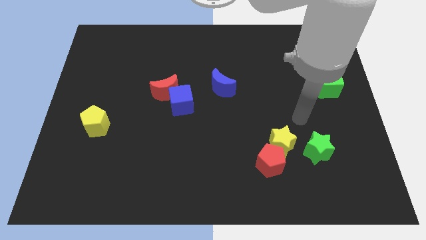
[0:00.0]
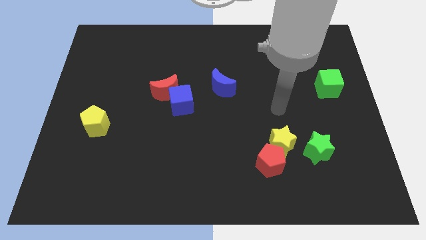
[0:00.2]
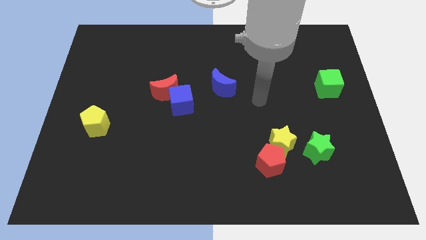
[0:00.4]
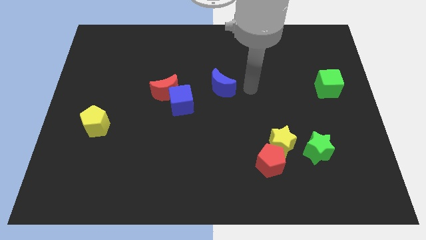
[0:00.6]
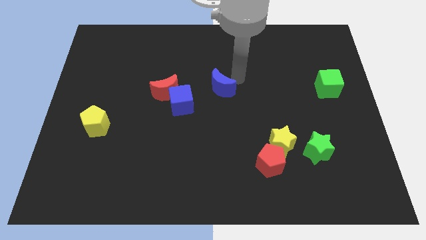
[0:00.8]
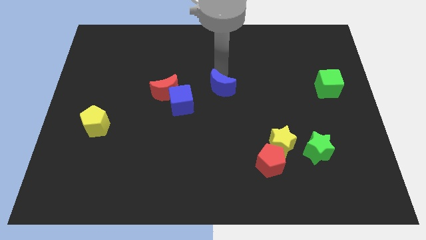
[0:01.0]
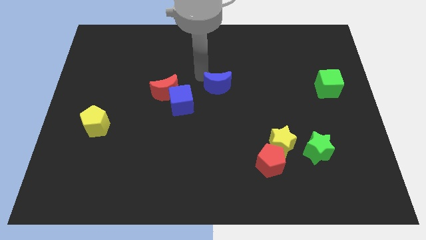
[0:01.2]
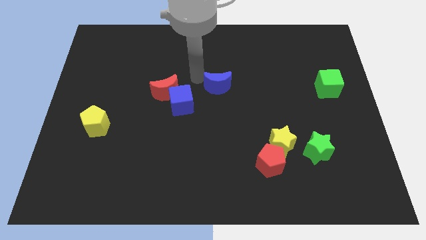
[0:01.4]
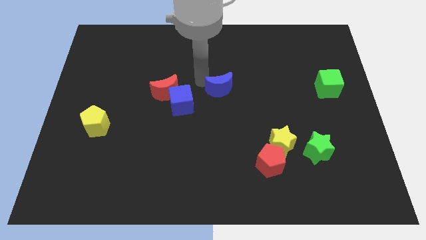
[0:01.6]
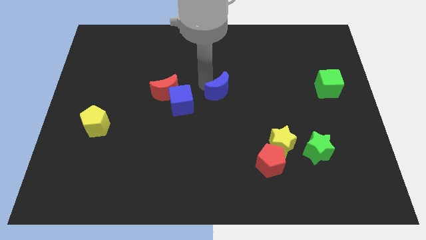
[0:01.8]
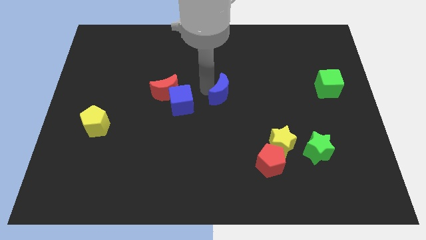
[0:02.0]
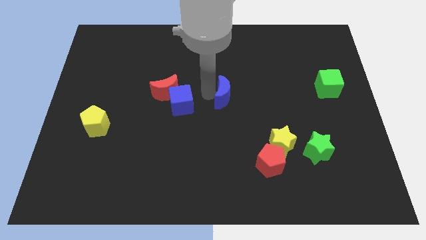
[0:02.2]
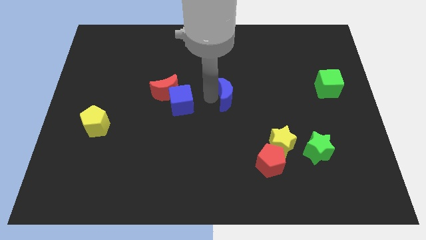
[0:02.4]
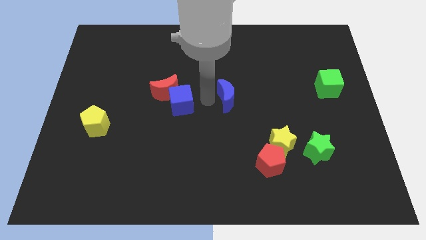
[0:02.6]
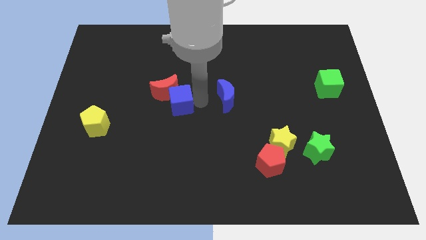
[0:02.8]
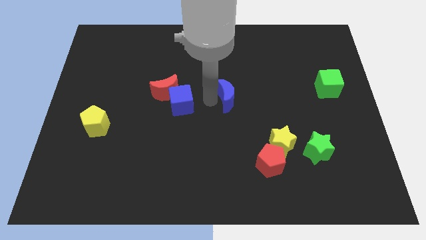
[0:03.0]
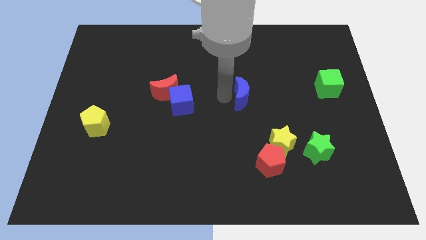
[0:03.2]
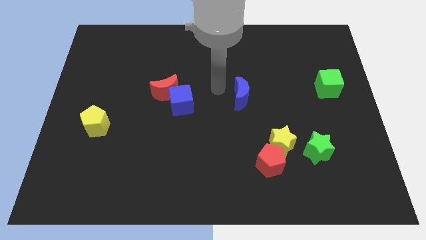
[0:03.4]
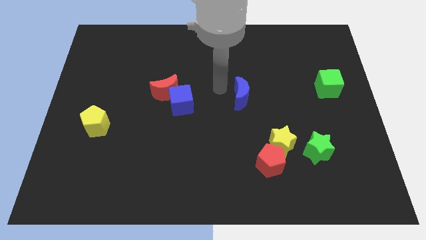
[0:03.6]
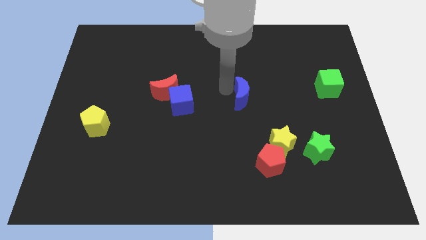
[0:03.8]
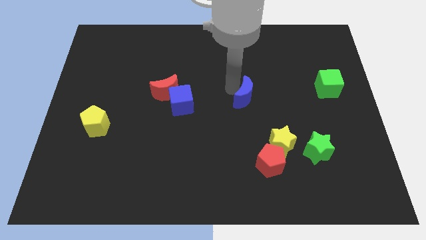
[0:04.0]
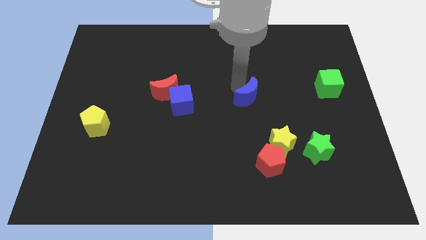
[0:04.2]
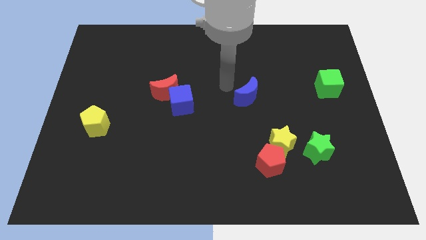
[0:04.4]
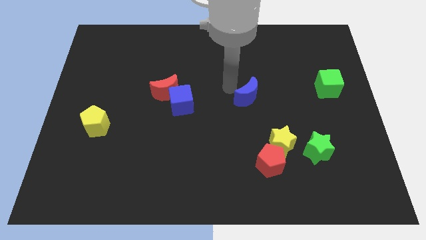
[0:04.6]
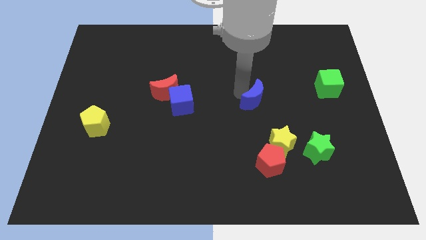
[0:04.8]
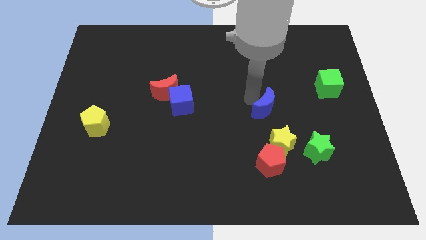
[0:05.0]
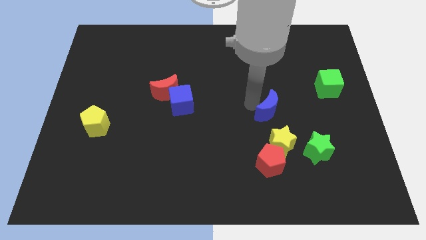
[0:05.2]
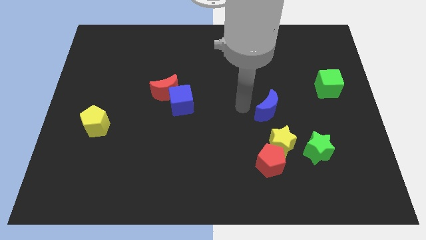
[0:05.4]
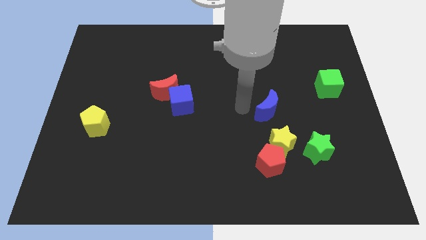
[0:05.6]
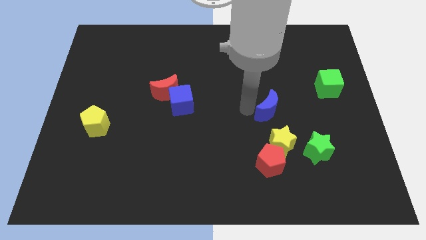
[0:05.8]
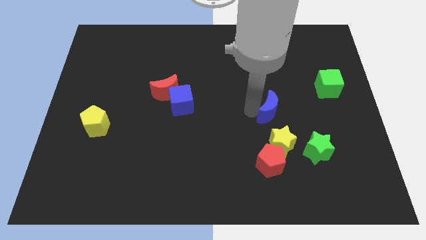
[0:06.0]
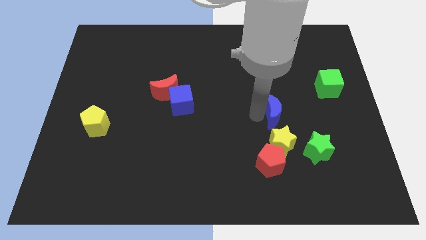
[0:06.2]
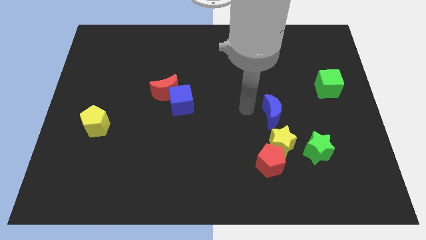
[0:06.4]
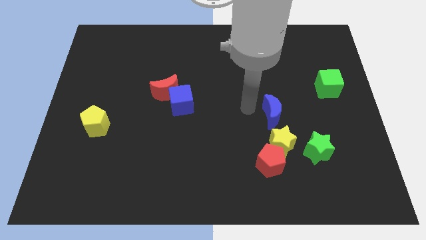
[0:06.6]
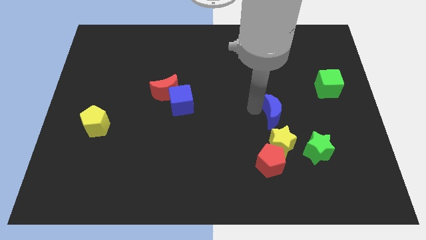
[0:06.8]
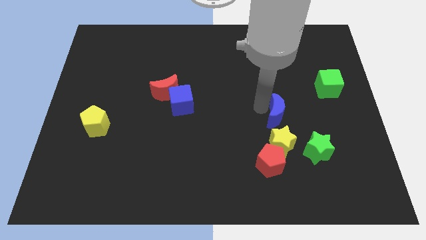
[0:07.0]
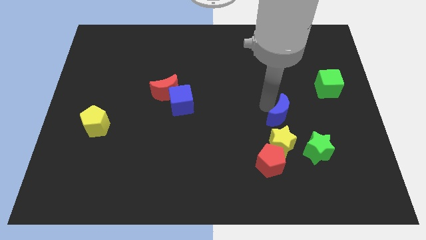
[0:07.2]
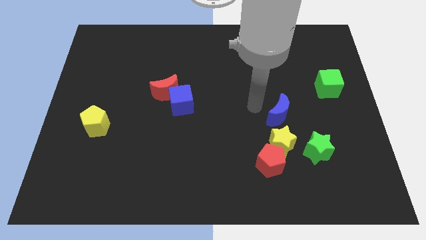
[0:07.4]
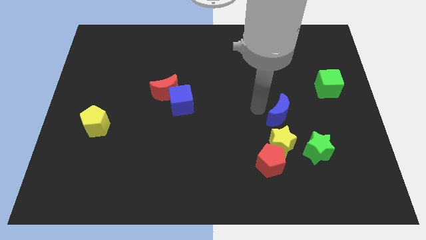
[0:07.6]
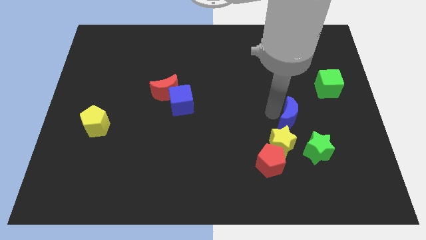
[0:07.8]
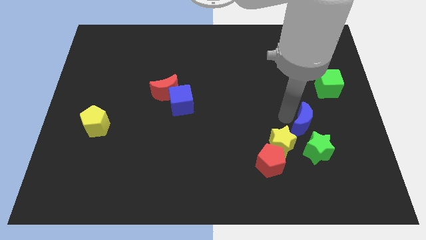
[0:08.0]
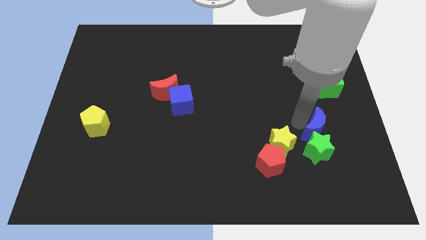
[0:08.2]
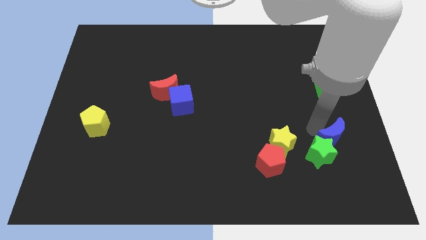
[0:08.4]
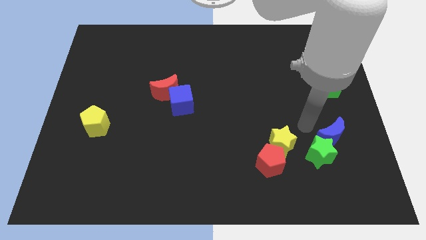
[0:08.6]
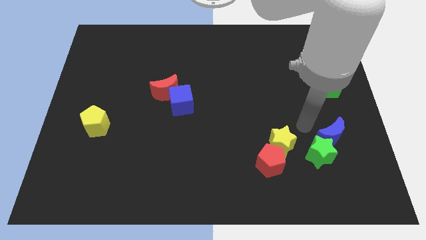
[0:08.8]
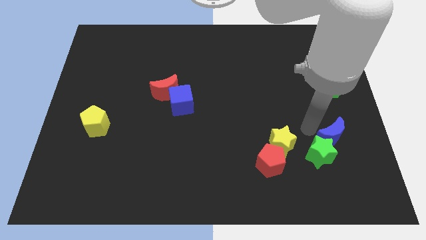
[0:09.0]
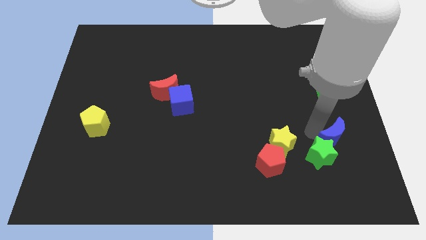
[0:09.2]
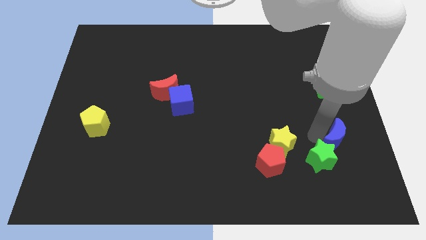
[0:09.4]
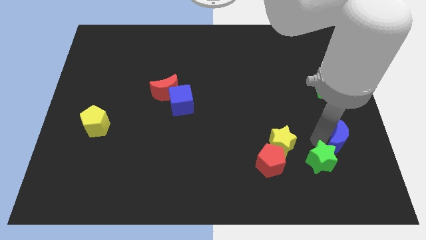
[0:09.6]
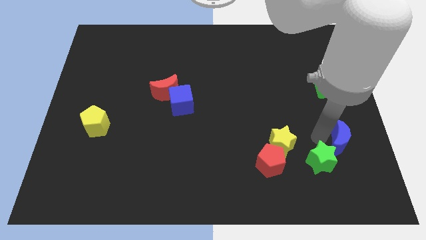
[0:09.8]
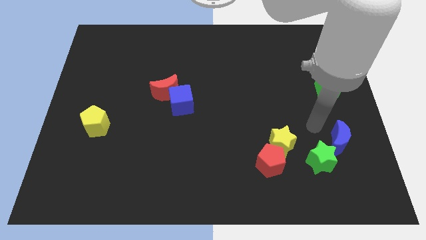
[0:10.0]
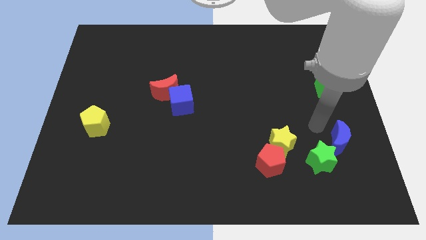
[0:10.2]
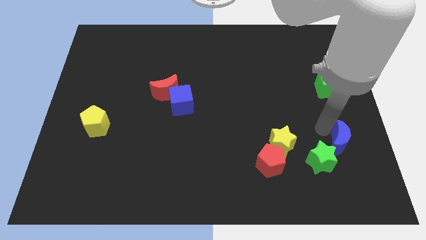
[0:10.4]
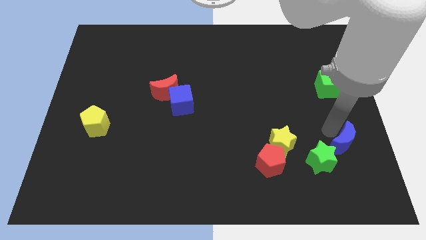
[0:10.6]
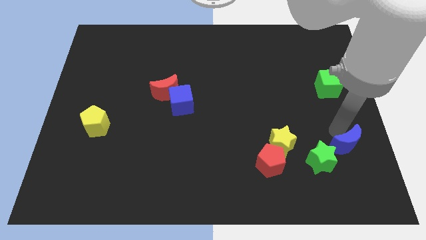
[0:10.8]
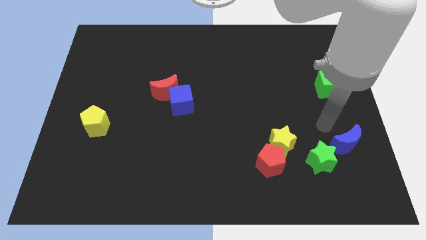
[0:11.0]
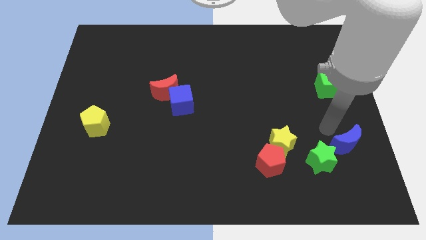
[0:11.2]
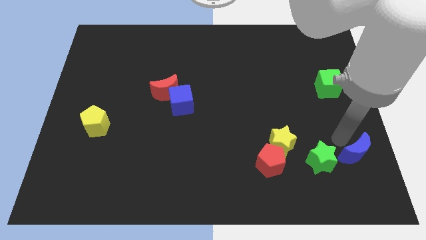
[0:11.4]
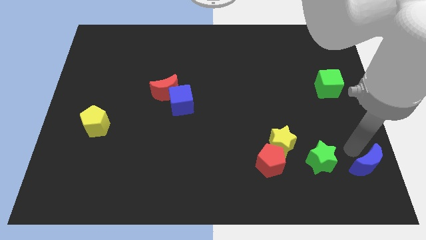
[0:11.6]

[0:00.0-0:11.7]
put the blue moon to the bottom right
